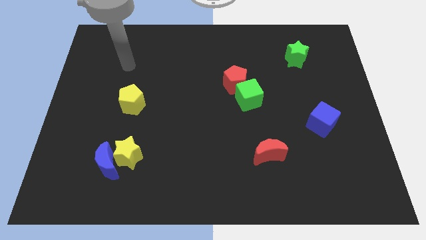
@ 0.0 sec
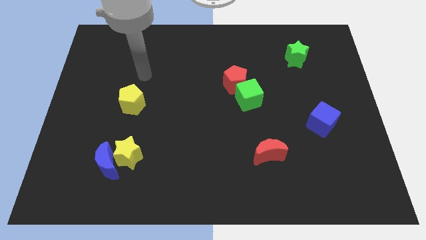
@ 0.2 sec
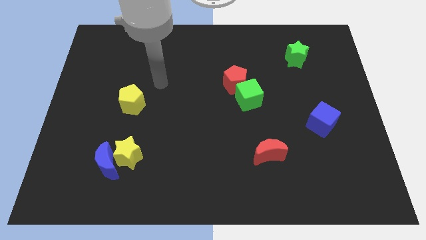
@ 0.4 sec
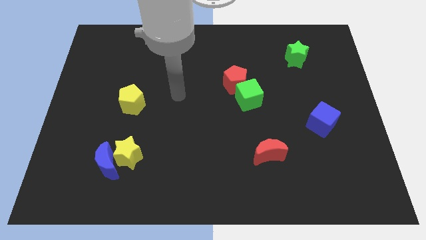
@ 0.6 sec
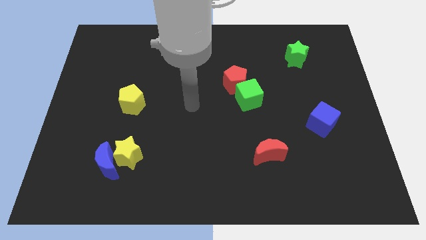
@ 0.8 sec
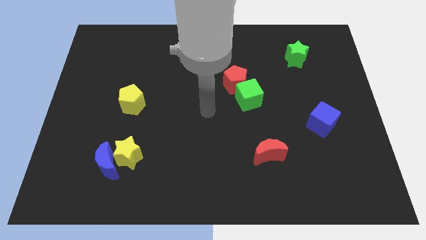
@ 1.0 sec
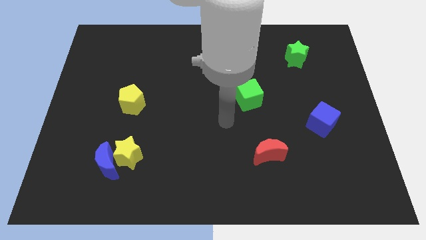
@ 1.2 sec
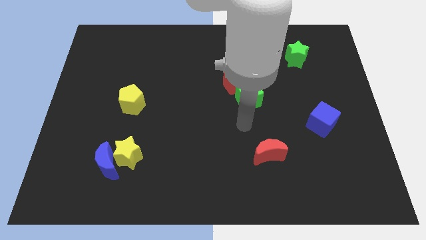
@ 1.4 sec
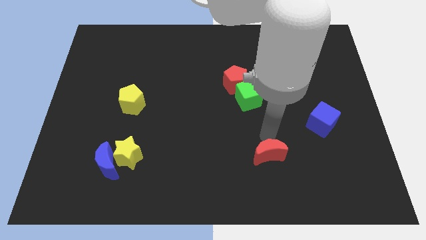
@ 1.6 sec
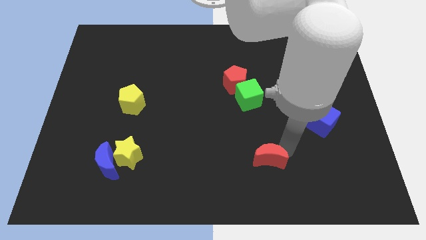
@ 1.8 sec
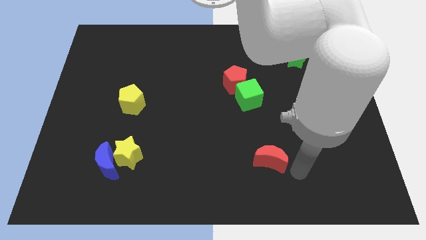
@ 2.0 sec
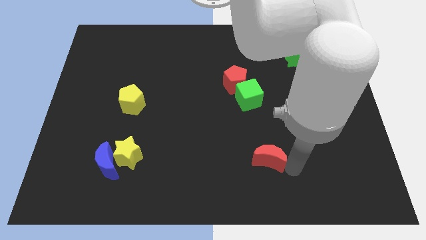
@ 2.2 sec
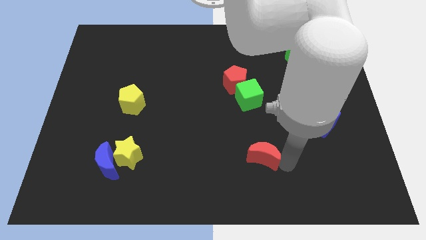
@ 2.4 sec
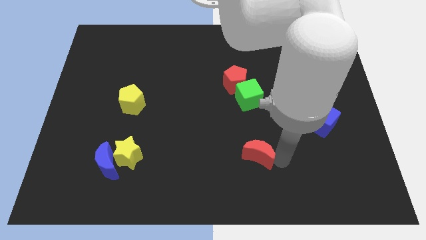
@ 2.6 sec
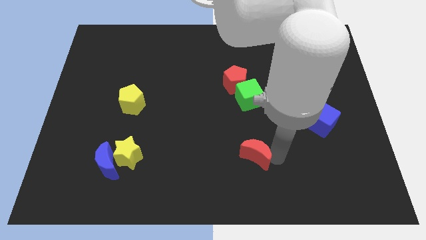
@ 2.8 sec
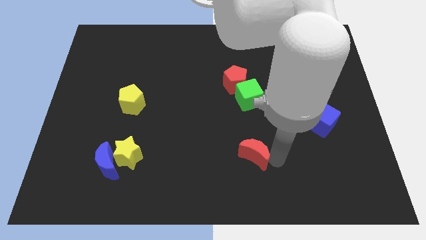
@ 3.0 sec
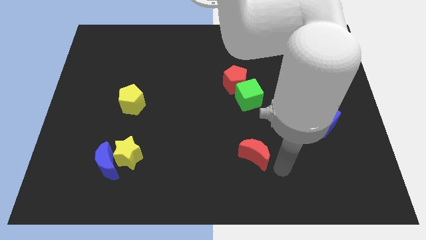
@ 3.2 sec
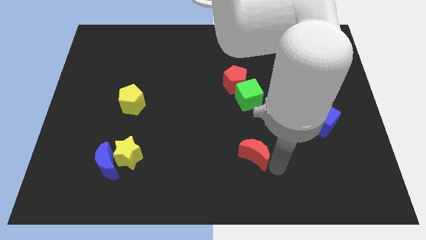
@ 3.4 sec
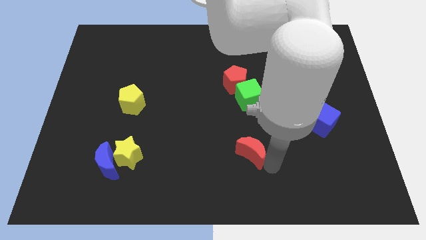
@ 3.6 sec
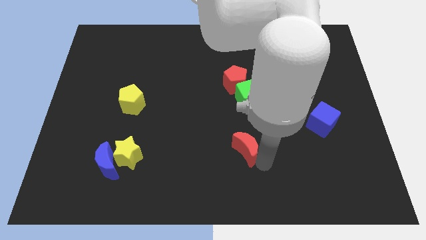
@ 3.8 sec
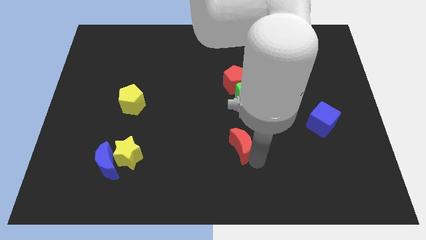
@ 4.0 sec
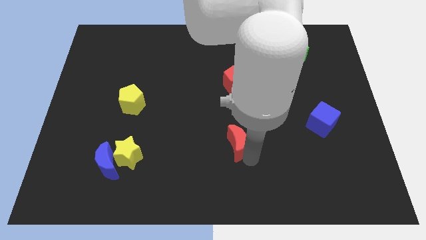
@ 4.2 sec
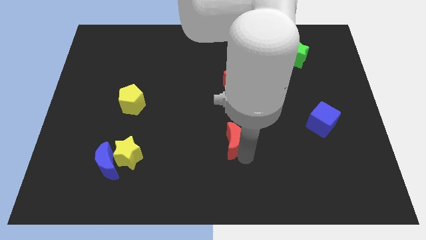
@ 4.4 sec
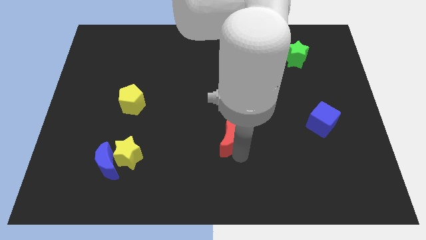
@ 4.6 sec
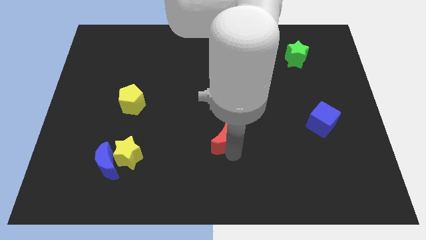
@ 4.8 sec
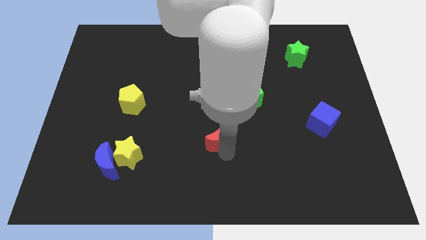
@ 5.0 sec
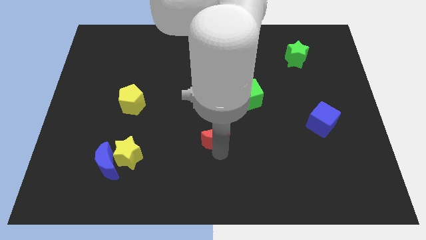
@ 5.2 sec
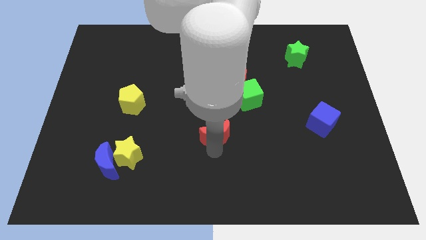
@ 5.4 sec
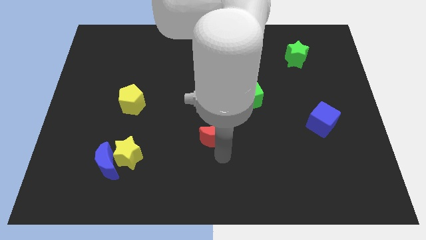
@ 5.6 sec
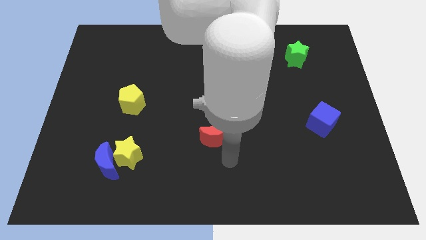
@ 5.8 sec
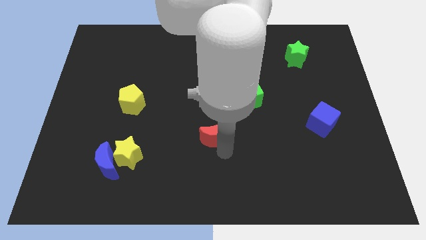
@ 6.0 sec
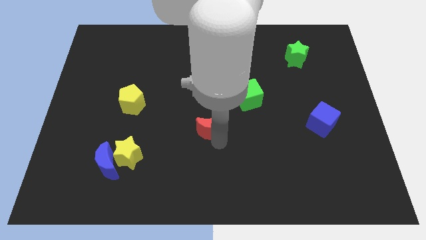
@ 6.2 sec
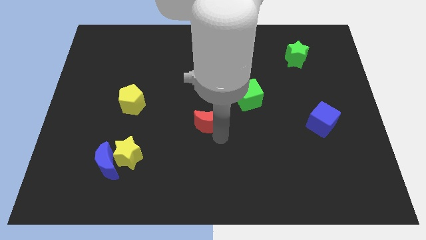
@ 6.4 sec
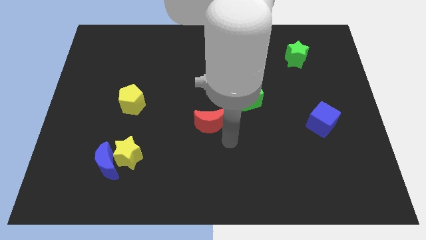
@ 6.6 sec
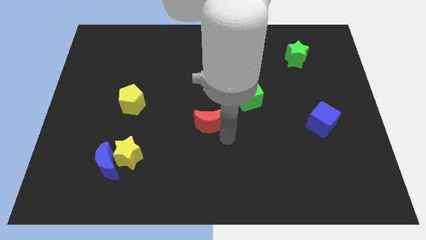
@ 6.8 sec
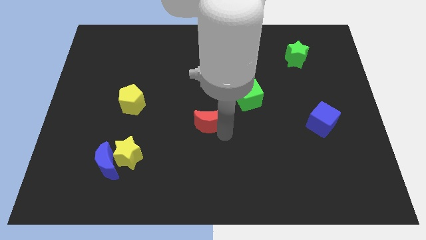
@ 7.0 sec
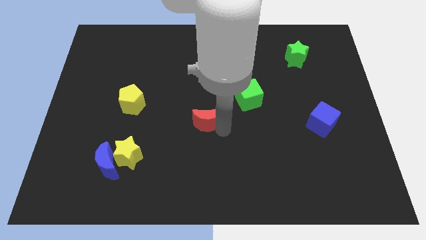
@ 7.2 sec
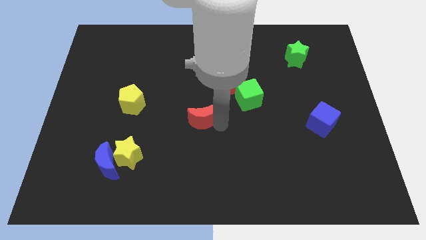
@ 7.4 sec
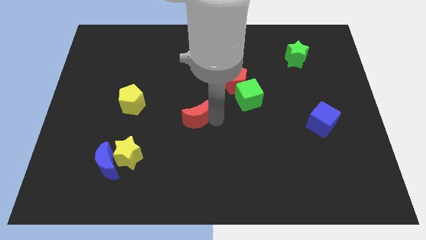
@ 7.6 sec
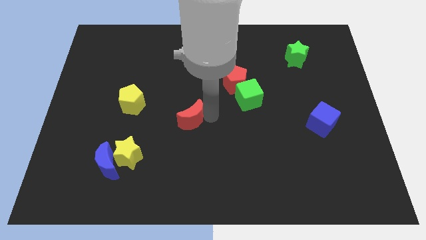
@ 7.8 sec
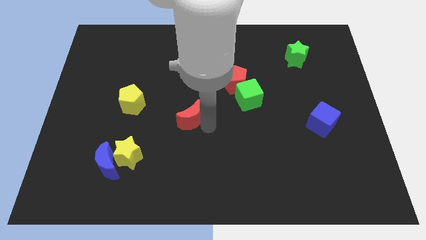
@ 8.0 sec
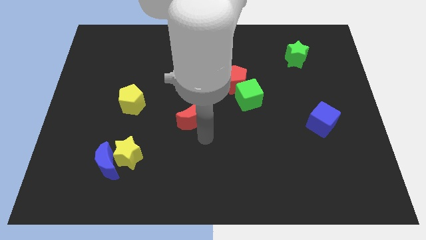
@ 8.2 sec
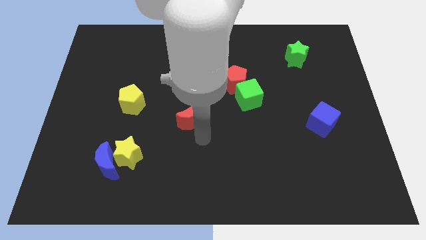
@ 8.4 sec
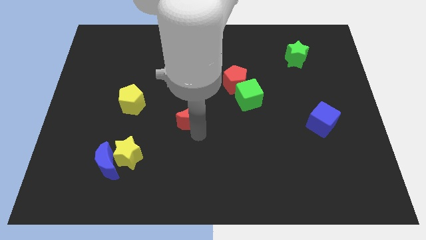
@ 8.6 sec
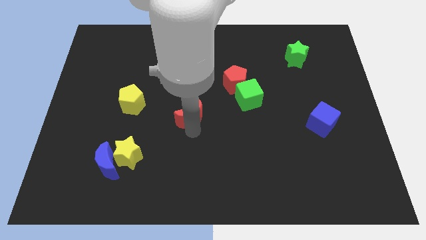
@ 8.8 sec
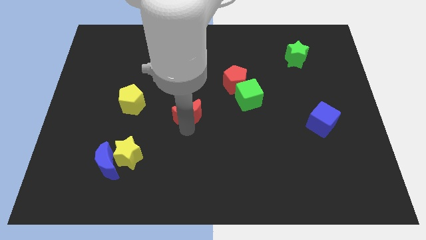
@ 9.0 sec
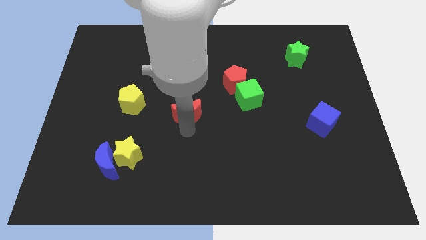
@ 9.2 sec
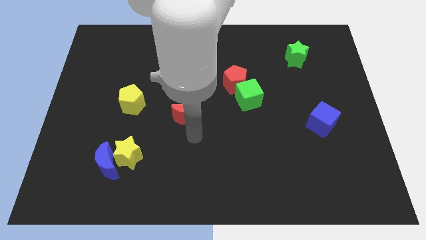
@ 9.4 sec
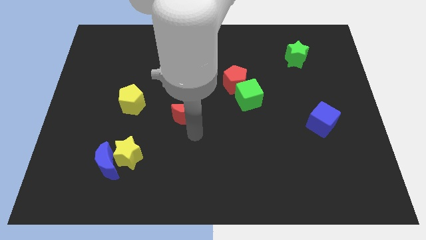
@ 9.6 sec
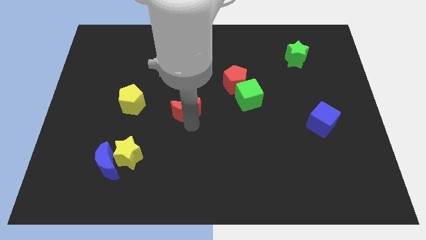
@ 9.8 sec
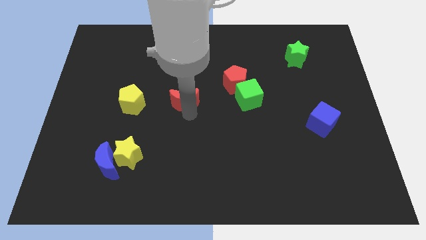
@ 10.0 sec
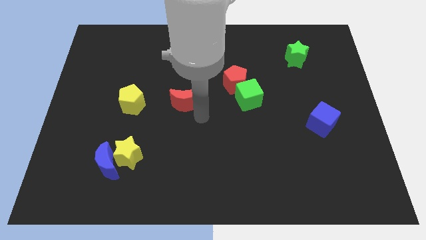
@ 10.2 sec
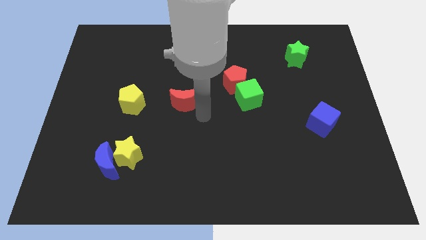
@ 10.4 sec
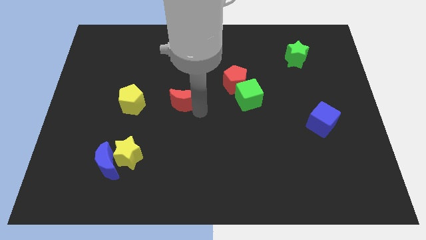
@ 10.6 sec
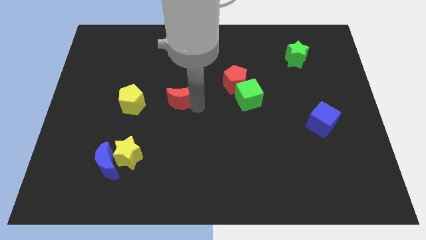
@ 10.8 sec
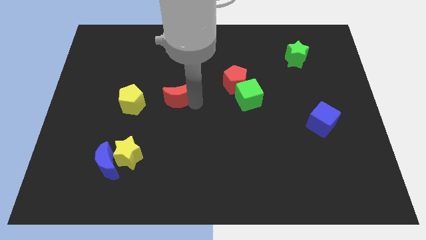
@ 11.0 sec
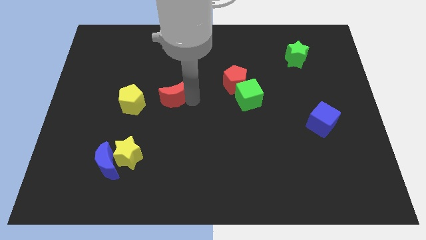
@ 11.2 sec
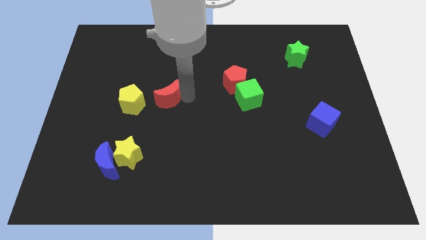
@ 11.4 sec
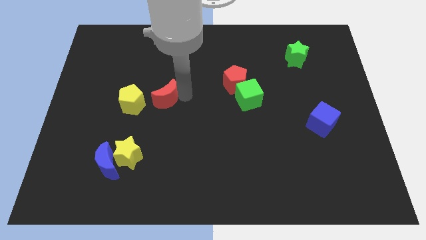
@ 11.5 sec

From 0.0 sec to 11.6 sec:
push the red moon diagonally up and to the right of the yellow pentagon

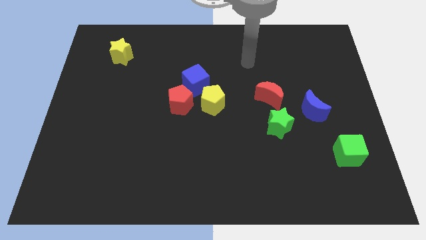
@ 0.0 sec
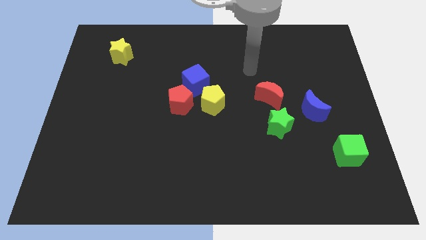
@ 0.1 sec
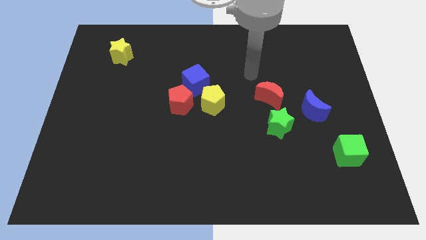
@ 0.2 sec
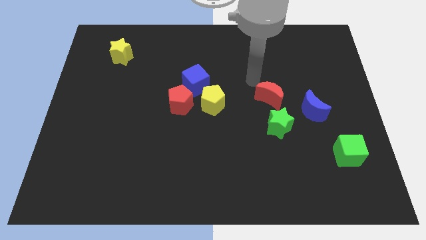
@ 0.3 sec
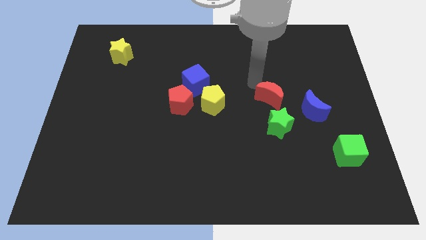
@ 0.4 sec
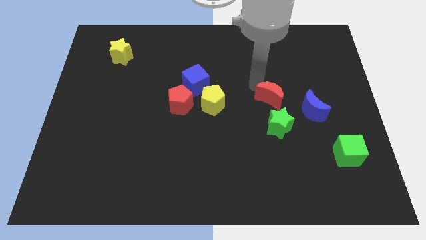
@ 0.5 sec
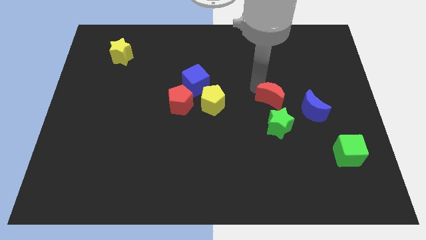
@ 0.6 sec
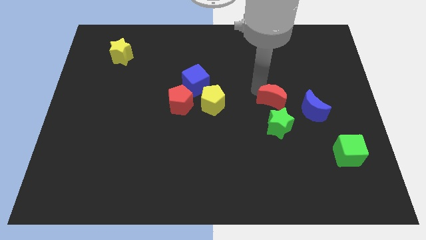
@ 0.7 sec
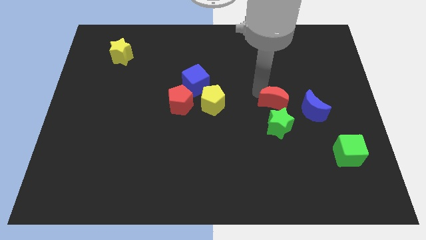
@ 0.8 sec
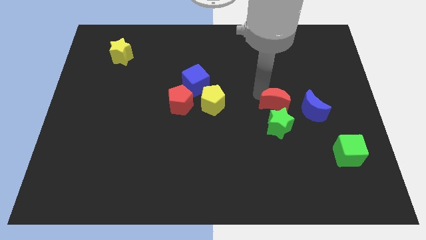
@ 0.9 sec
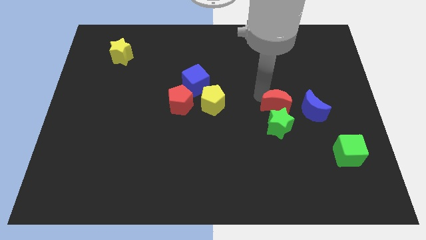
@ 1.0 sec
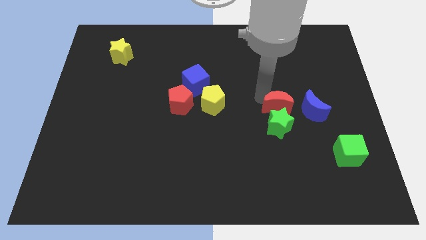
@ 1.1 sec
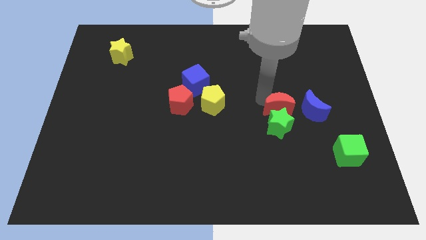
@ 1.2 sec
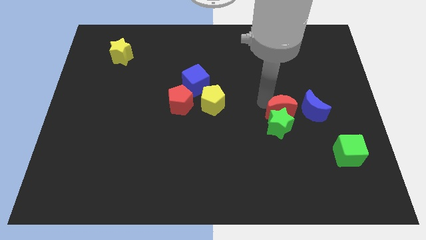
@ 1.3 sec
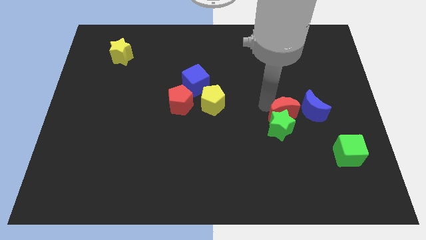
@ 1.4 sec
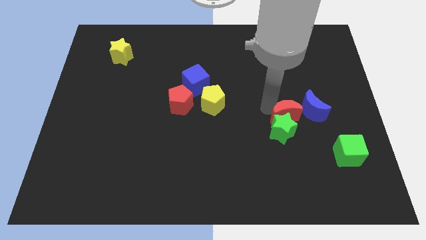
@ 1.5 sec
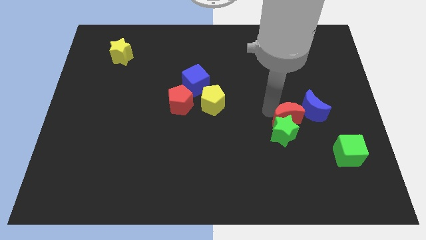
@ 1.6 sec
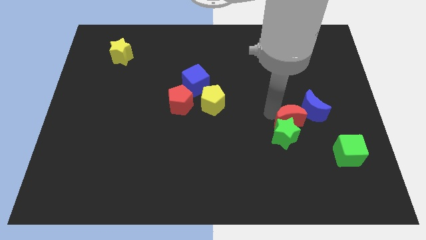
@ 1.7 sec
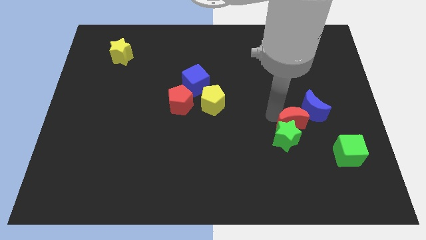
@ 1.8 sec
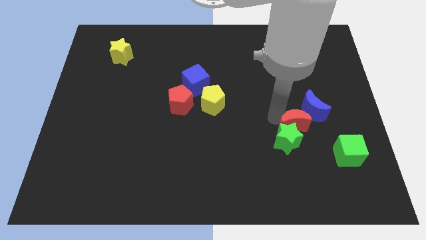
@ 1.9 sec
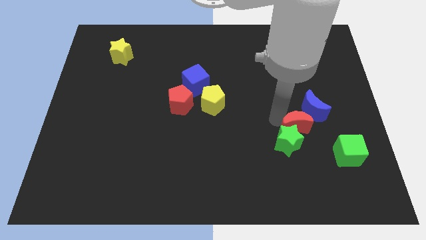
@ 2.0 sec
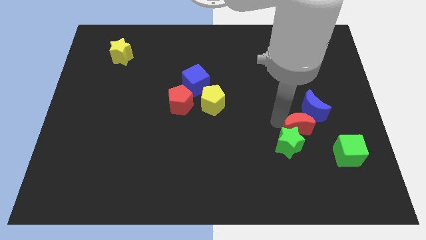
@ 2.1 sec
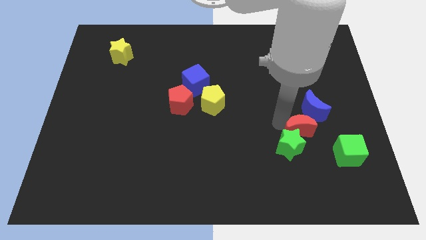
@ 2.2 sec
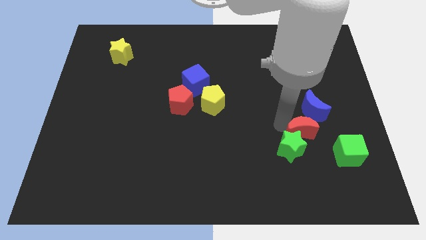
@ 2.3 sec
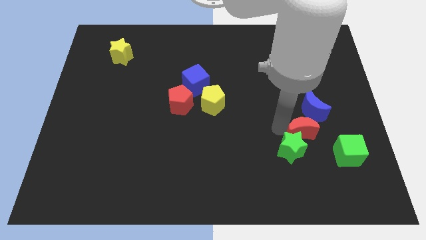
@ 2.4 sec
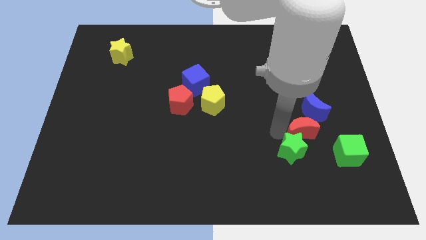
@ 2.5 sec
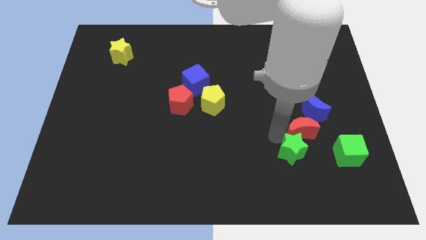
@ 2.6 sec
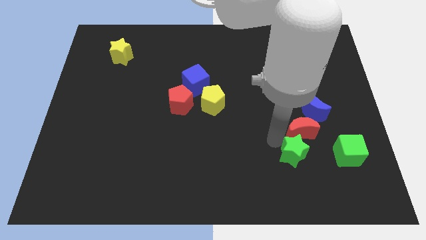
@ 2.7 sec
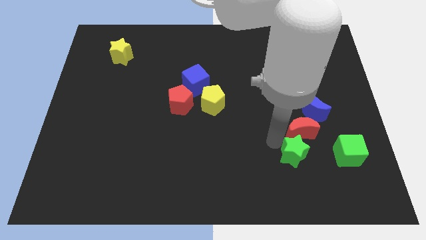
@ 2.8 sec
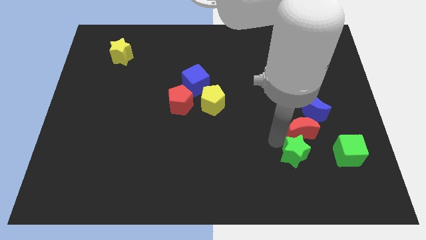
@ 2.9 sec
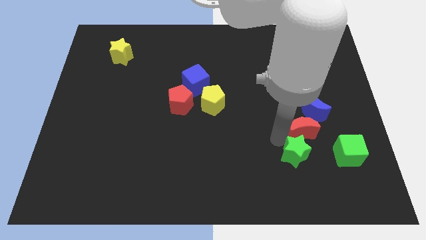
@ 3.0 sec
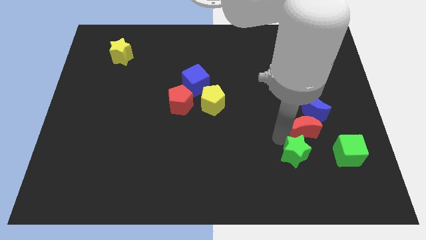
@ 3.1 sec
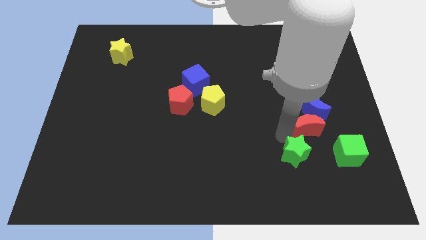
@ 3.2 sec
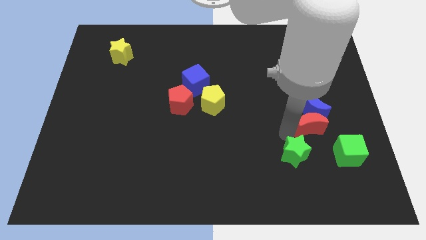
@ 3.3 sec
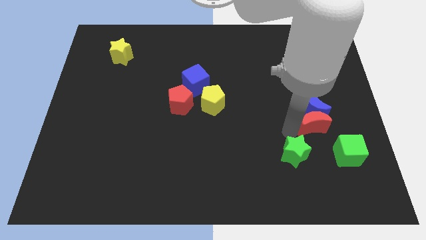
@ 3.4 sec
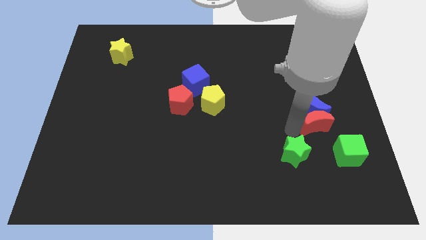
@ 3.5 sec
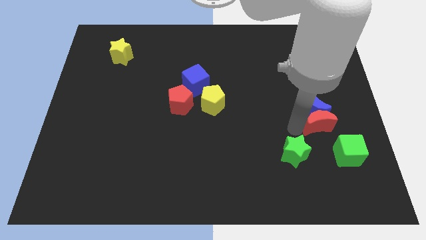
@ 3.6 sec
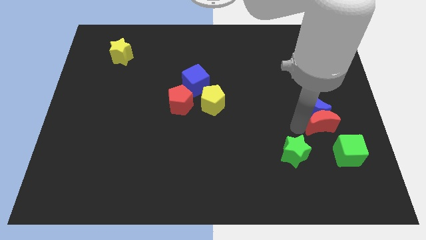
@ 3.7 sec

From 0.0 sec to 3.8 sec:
put the red moon to the top side of the green cube
